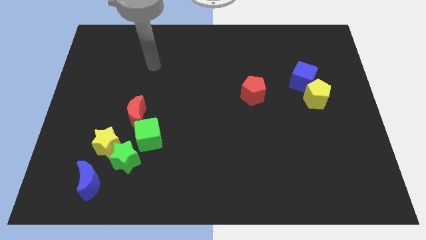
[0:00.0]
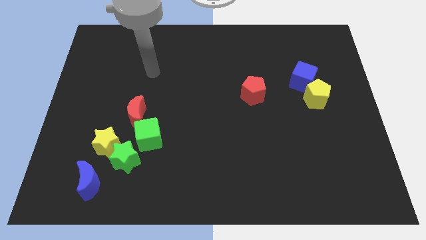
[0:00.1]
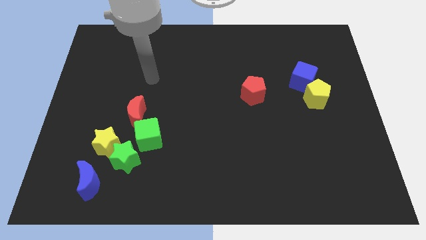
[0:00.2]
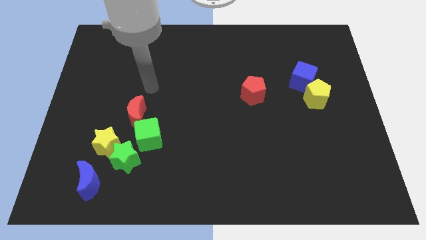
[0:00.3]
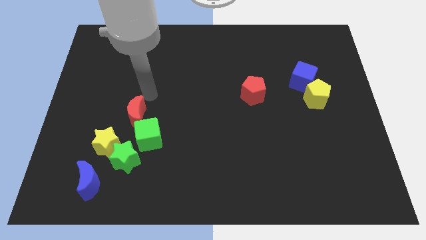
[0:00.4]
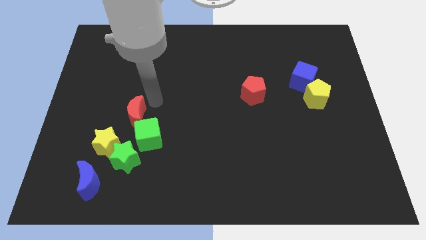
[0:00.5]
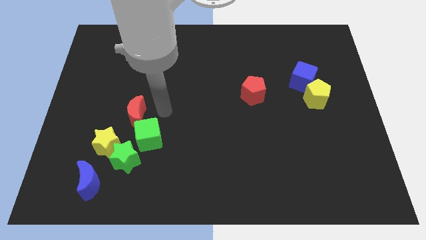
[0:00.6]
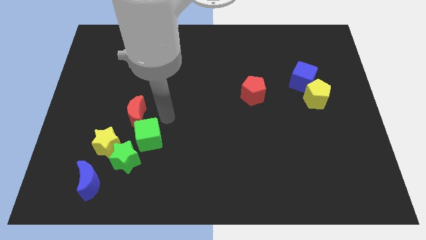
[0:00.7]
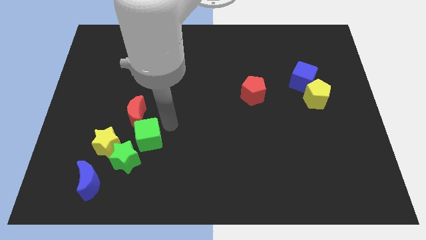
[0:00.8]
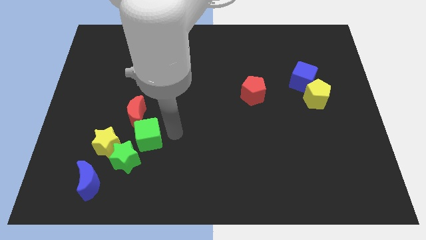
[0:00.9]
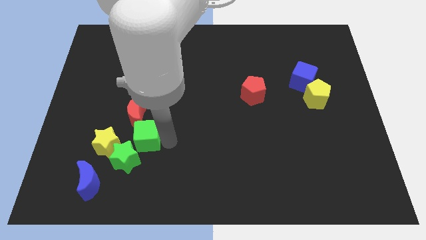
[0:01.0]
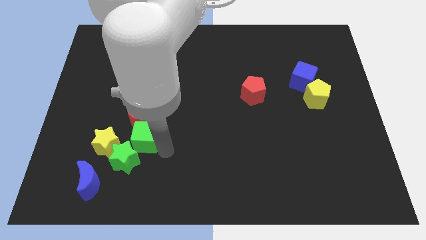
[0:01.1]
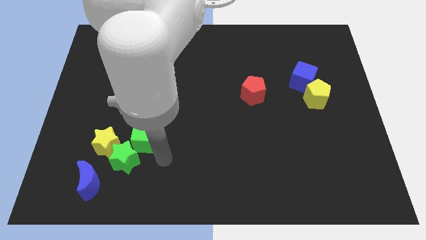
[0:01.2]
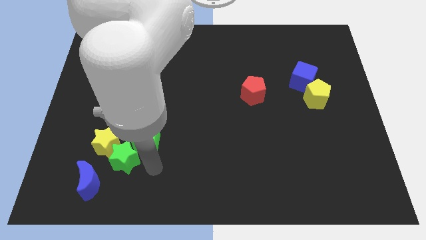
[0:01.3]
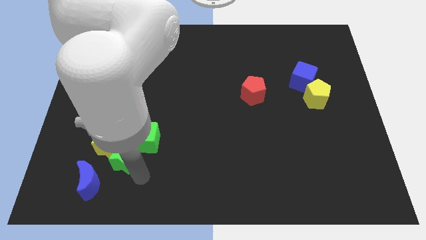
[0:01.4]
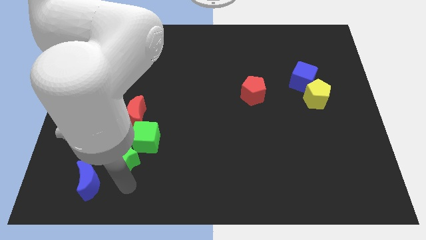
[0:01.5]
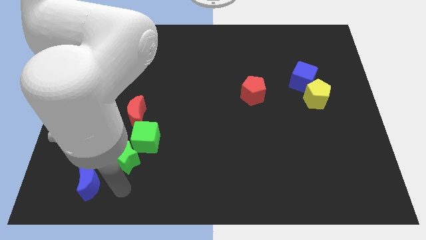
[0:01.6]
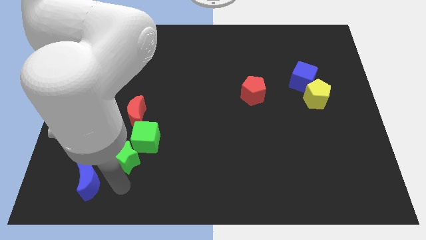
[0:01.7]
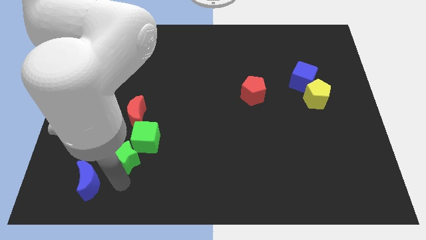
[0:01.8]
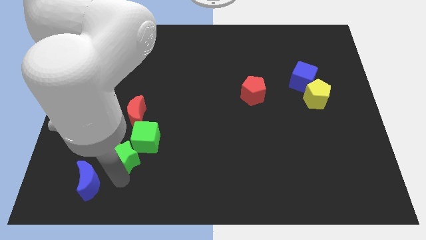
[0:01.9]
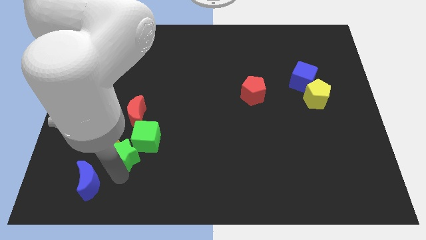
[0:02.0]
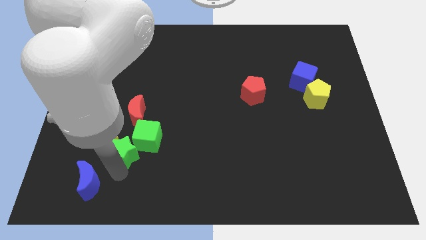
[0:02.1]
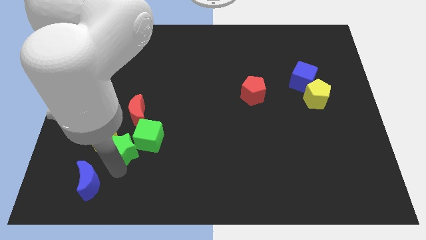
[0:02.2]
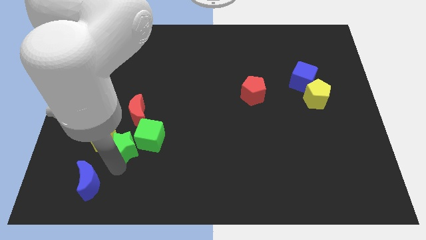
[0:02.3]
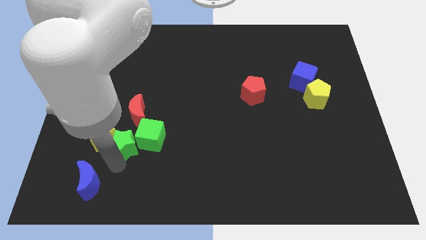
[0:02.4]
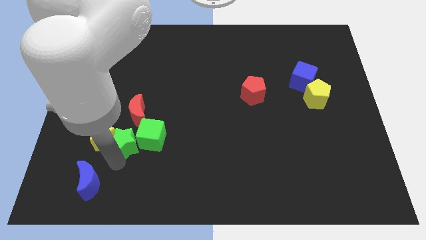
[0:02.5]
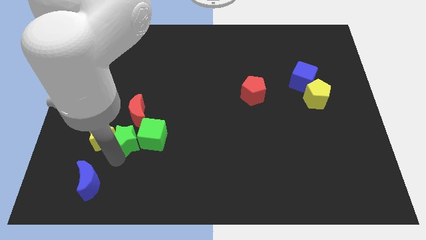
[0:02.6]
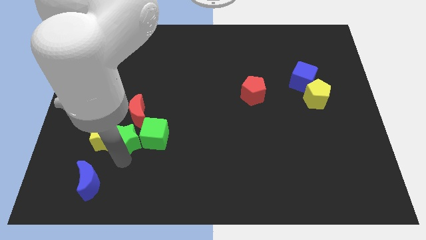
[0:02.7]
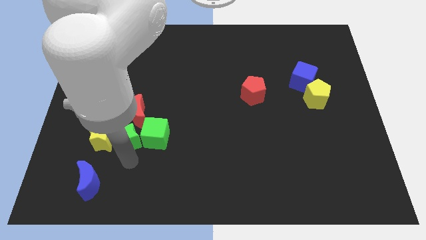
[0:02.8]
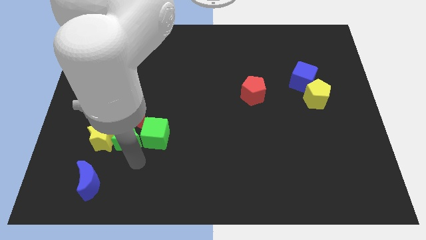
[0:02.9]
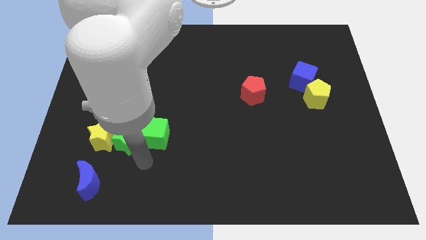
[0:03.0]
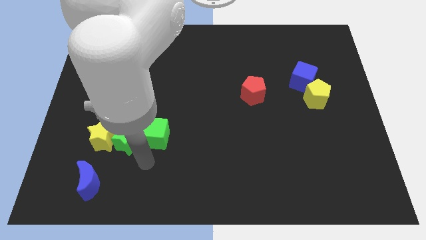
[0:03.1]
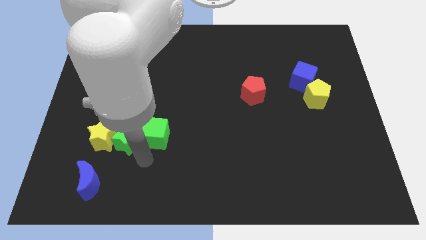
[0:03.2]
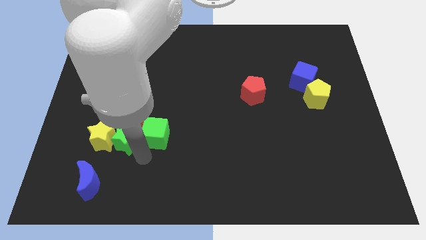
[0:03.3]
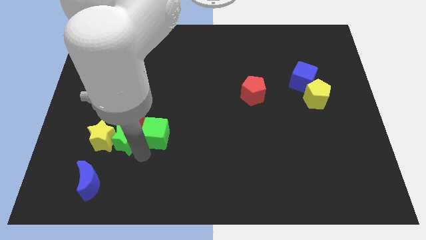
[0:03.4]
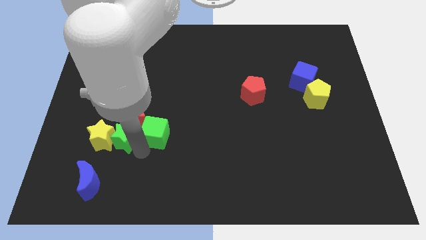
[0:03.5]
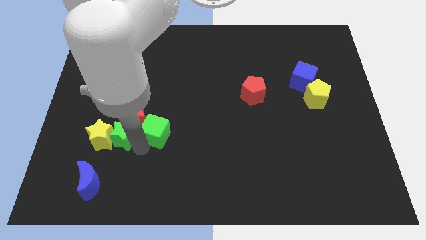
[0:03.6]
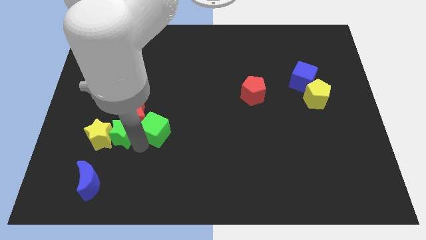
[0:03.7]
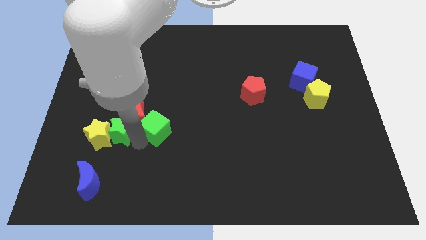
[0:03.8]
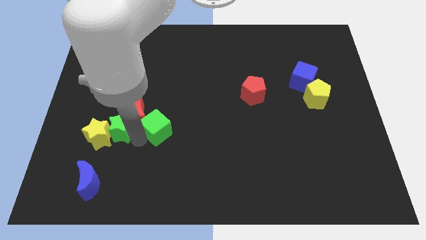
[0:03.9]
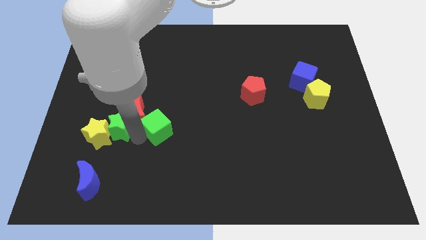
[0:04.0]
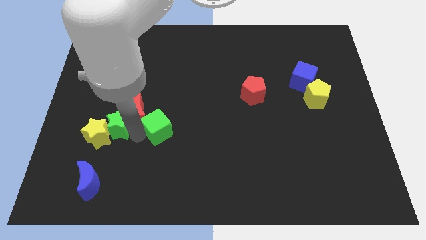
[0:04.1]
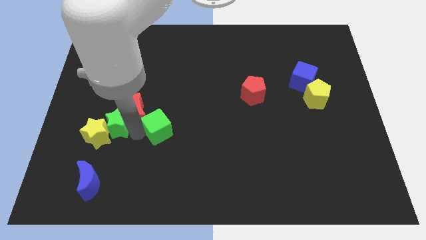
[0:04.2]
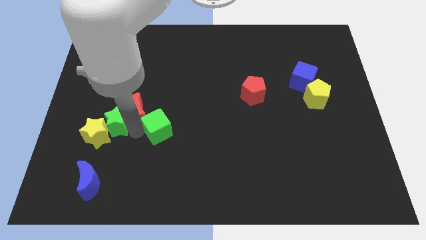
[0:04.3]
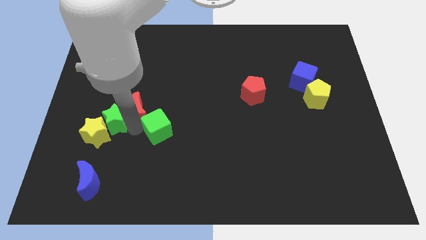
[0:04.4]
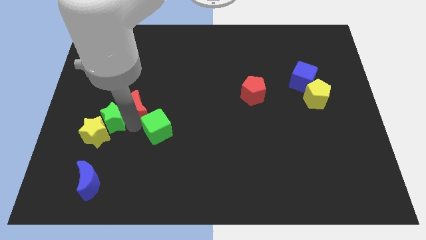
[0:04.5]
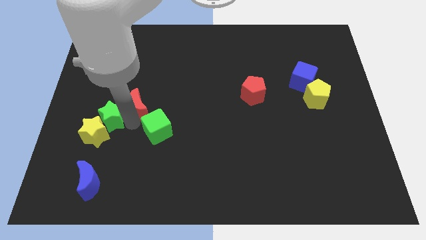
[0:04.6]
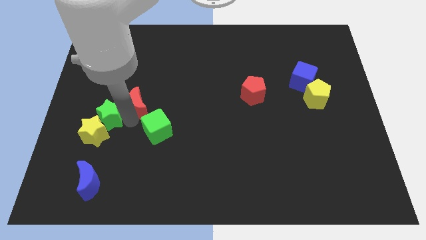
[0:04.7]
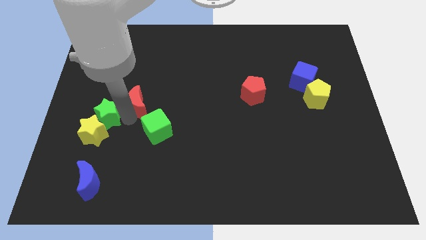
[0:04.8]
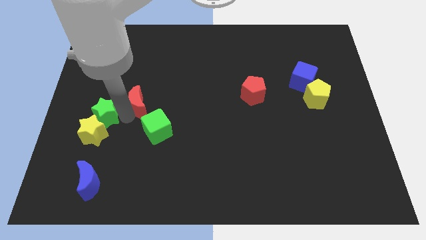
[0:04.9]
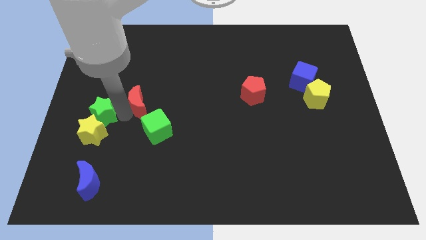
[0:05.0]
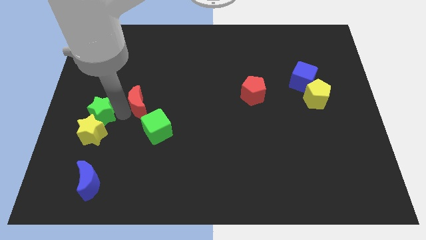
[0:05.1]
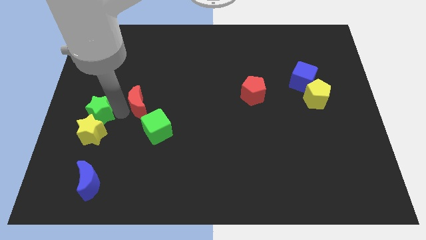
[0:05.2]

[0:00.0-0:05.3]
slide the green star to the center left
